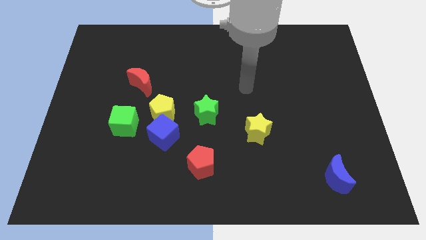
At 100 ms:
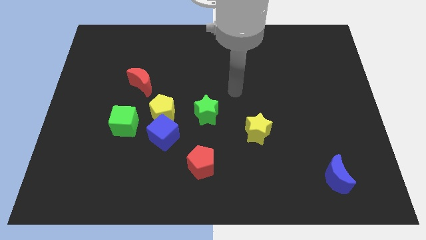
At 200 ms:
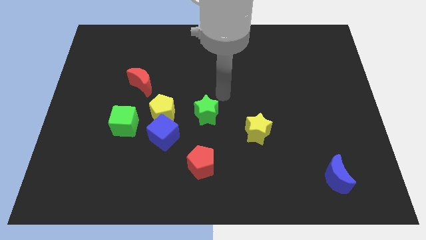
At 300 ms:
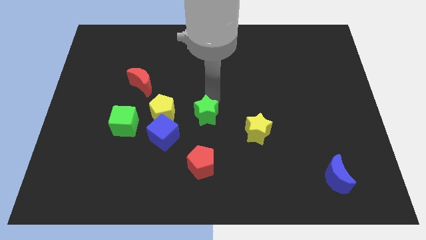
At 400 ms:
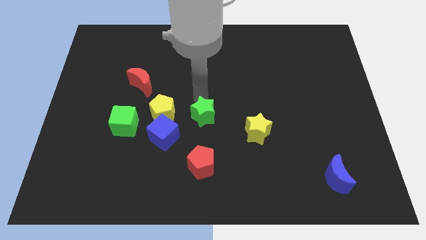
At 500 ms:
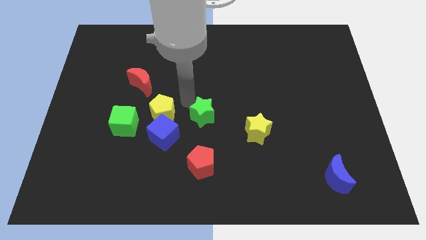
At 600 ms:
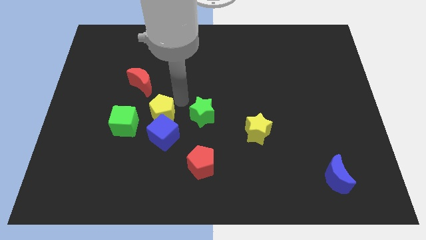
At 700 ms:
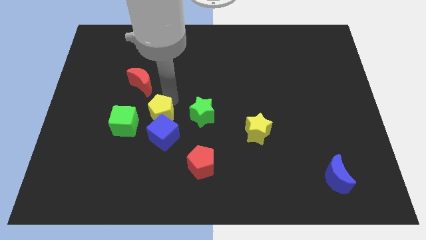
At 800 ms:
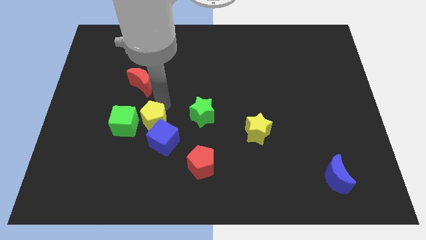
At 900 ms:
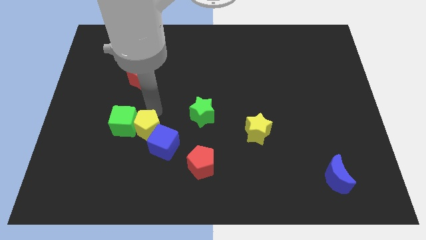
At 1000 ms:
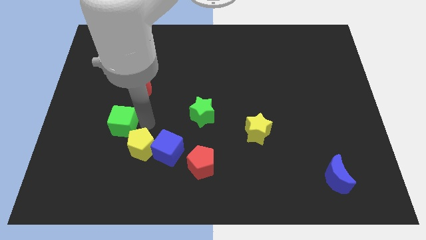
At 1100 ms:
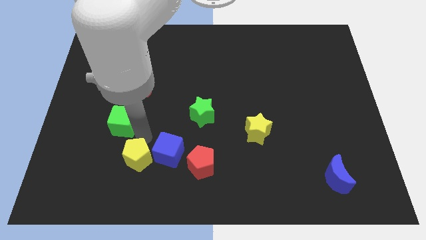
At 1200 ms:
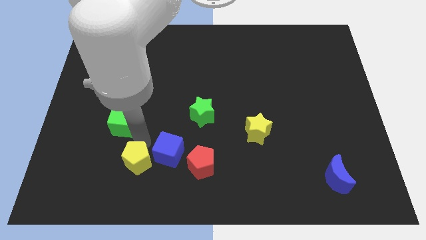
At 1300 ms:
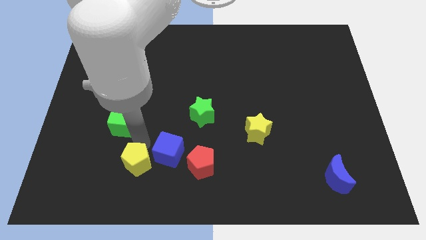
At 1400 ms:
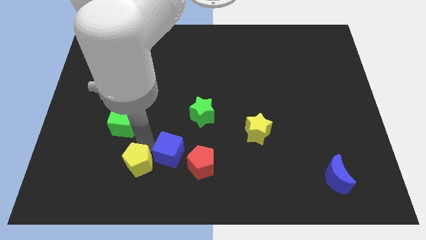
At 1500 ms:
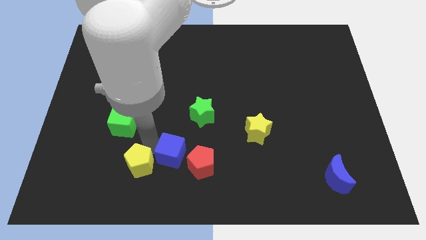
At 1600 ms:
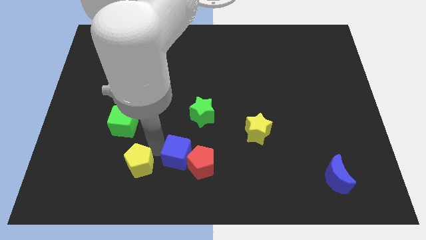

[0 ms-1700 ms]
separate the blue cube from the yellow pentagon and green cube

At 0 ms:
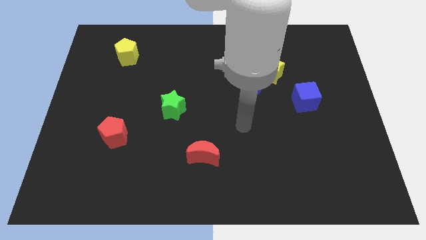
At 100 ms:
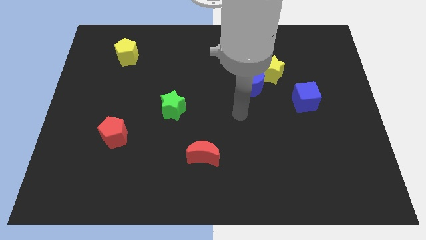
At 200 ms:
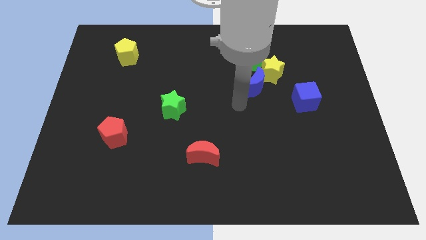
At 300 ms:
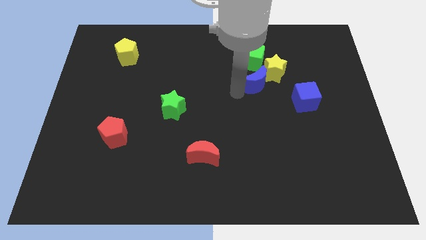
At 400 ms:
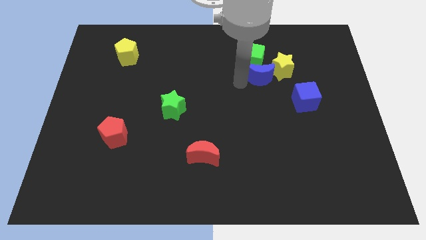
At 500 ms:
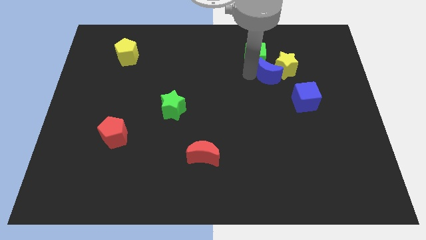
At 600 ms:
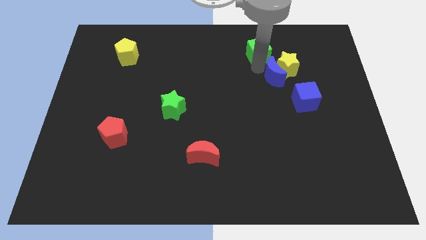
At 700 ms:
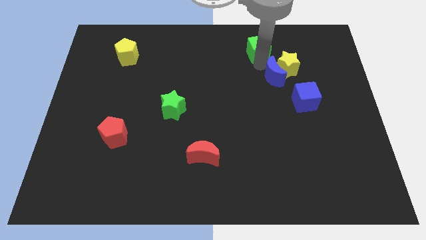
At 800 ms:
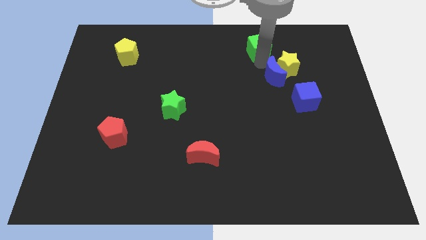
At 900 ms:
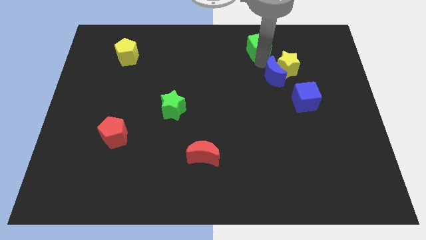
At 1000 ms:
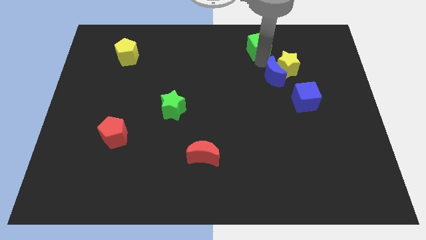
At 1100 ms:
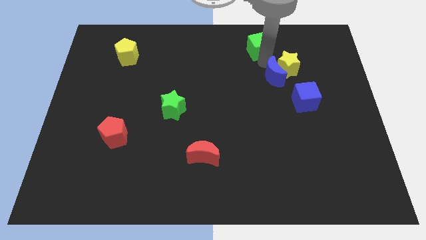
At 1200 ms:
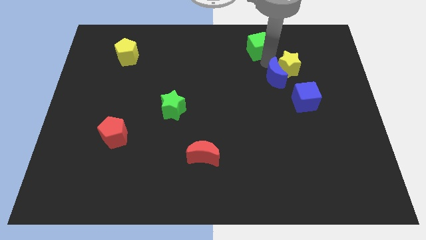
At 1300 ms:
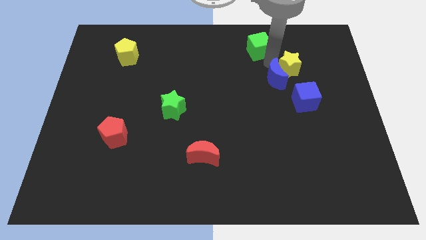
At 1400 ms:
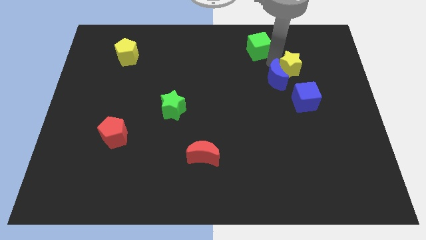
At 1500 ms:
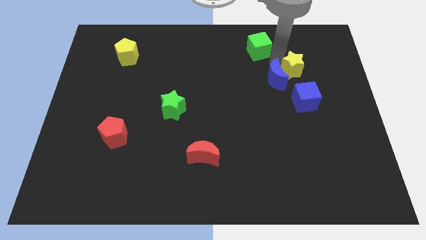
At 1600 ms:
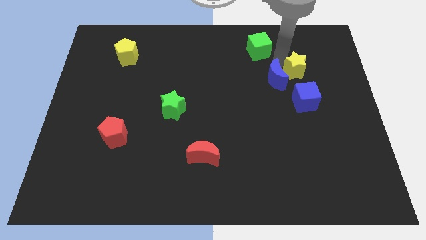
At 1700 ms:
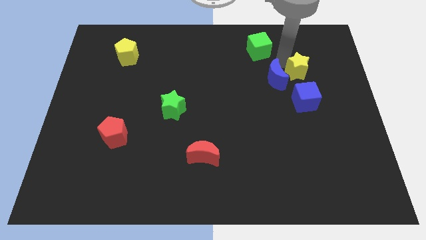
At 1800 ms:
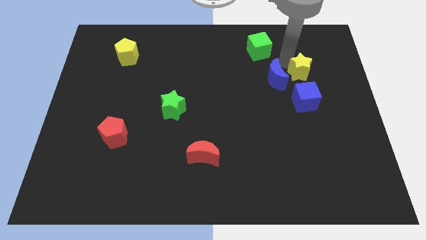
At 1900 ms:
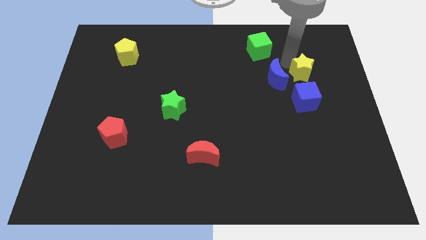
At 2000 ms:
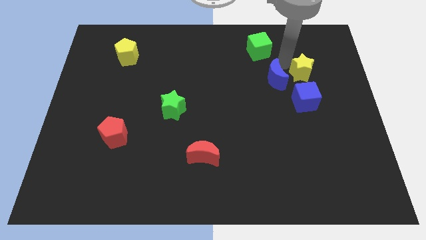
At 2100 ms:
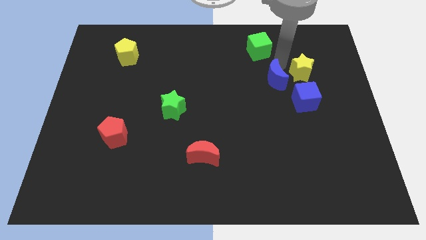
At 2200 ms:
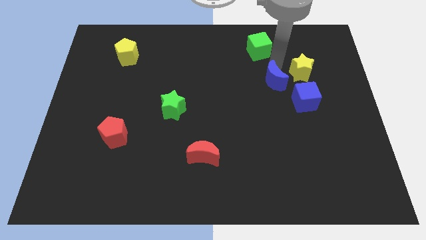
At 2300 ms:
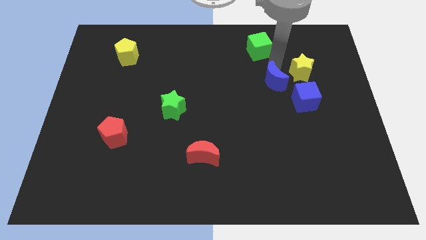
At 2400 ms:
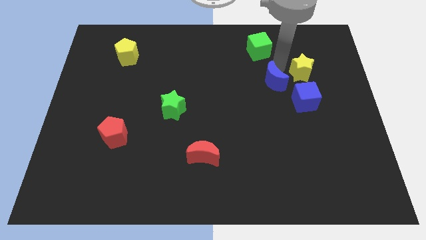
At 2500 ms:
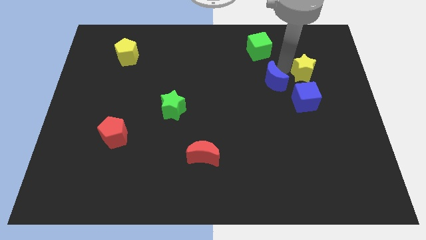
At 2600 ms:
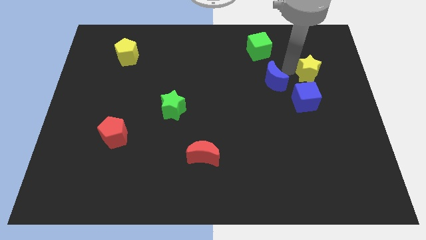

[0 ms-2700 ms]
separate the yellow star from the green cube and blue moon

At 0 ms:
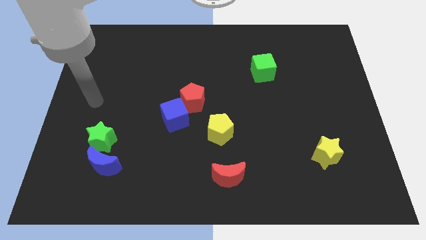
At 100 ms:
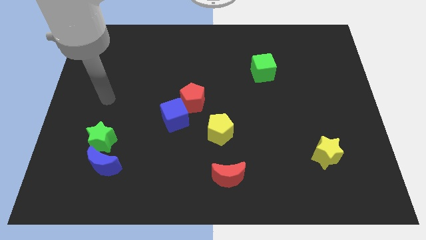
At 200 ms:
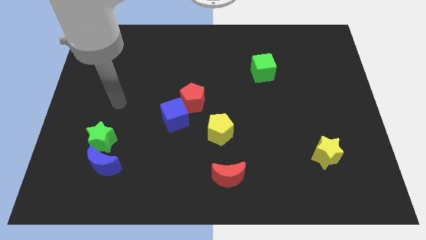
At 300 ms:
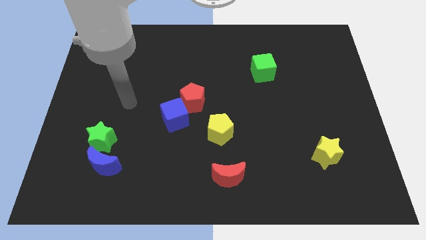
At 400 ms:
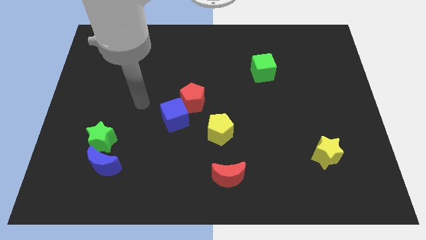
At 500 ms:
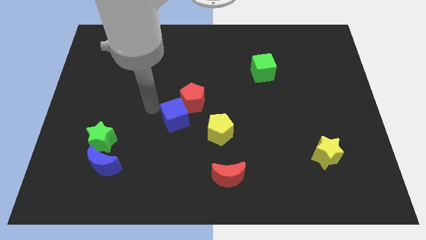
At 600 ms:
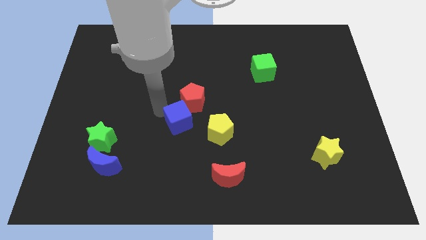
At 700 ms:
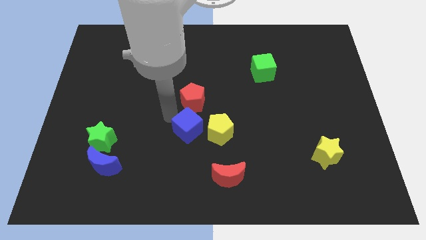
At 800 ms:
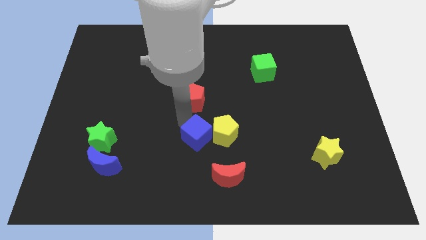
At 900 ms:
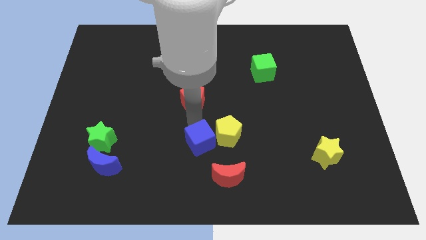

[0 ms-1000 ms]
separate the red pentagon from the blue cube

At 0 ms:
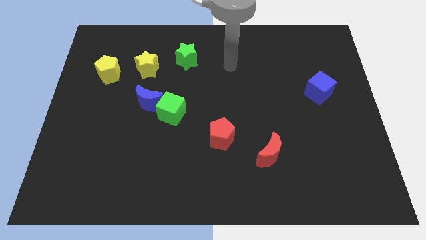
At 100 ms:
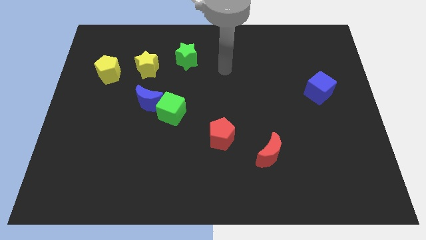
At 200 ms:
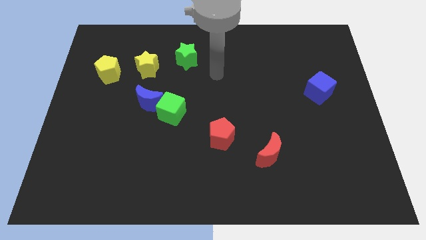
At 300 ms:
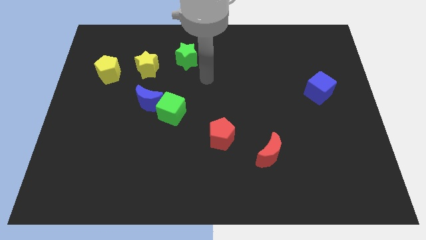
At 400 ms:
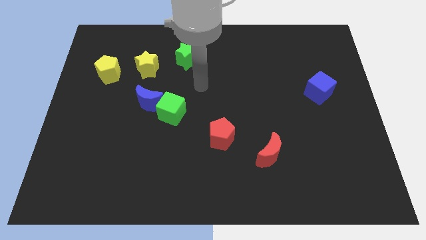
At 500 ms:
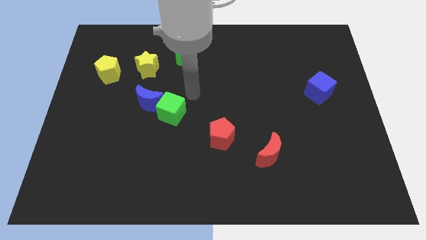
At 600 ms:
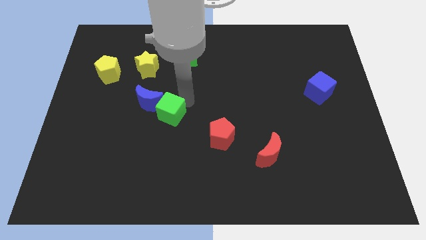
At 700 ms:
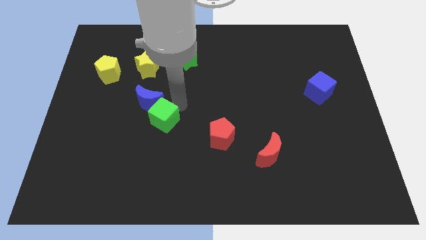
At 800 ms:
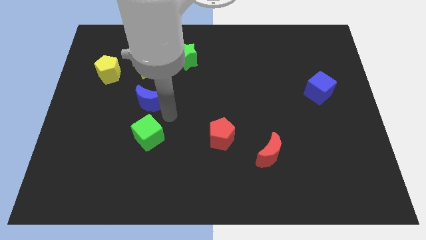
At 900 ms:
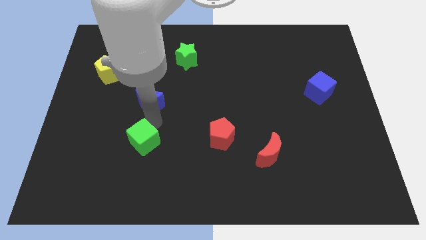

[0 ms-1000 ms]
separate the blue moon from the green cube

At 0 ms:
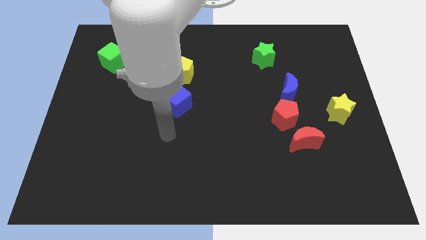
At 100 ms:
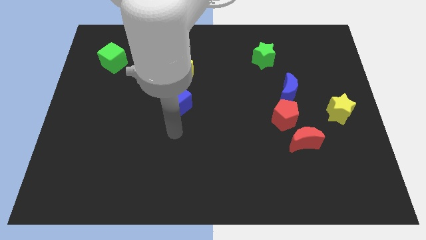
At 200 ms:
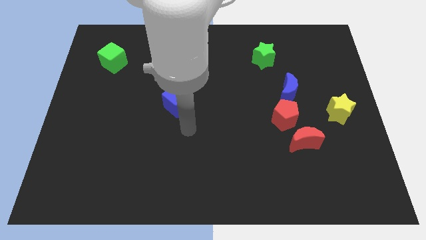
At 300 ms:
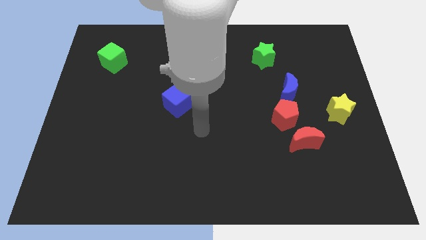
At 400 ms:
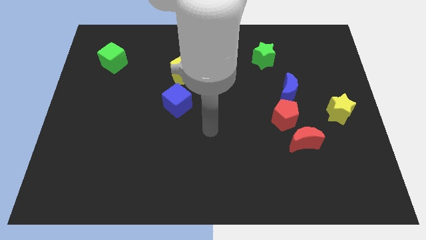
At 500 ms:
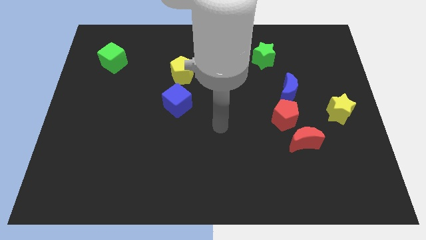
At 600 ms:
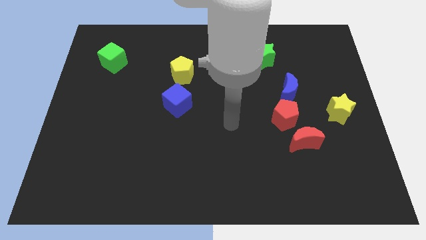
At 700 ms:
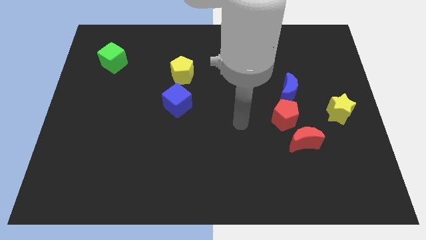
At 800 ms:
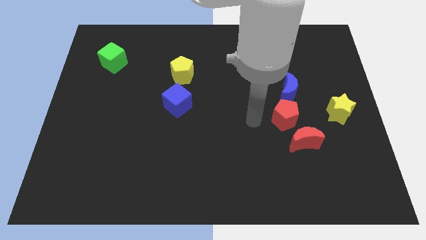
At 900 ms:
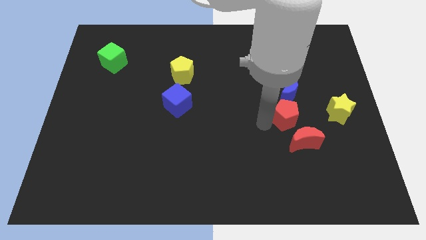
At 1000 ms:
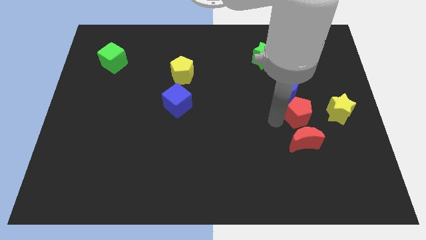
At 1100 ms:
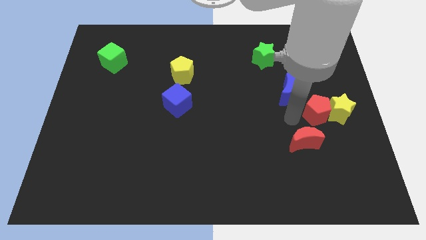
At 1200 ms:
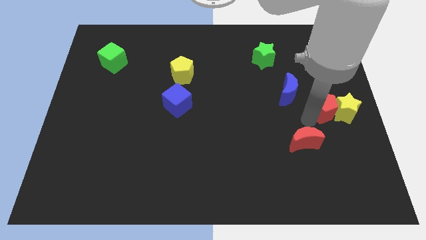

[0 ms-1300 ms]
separate the red moon from the red pentagon

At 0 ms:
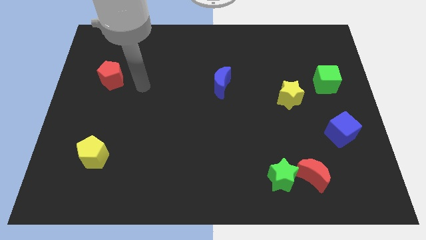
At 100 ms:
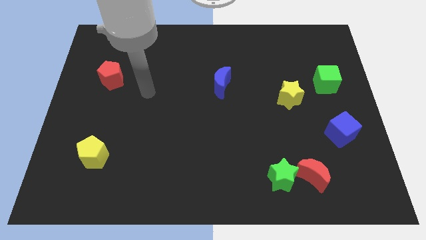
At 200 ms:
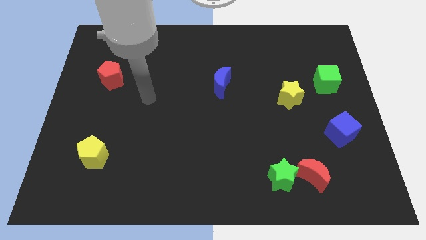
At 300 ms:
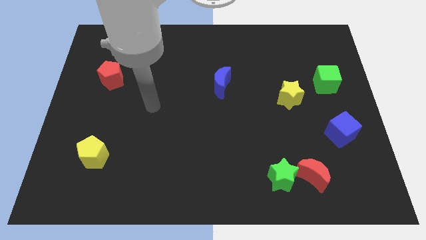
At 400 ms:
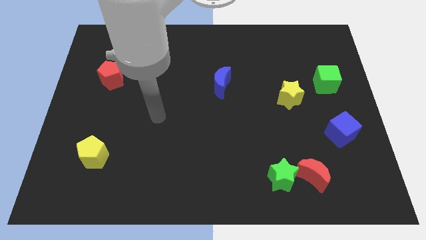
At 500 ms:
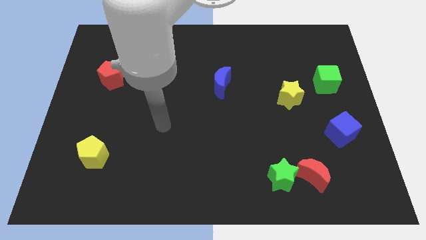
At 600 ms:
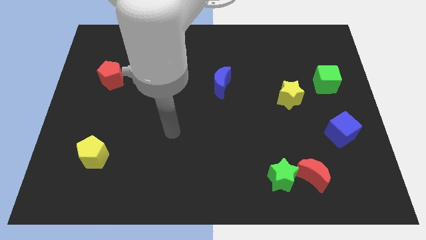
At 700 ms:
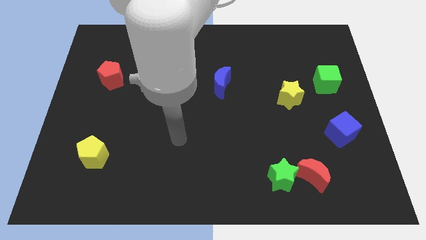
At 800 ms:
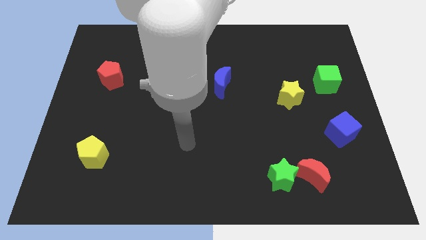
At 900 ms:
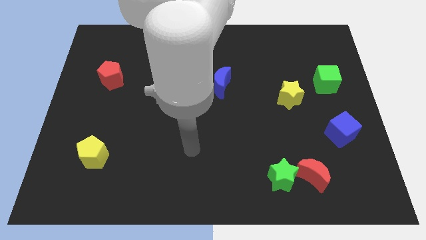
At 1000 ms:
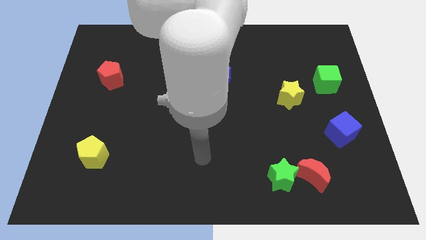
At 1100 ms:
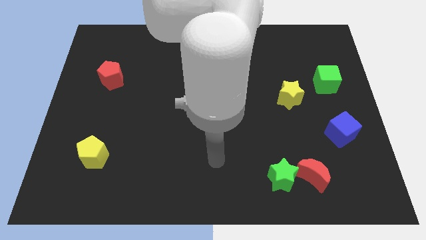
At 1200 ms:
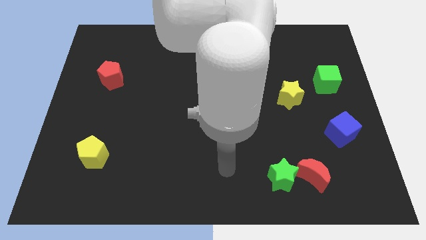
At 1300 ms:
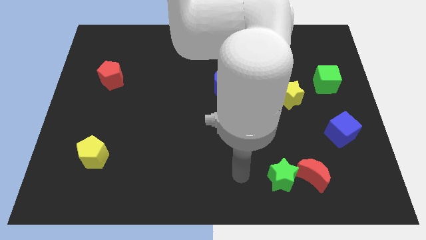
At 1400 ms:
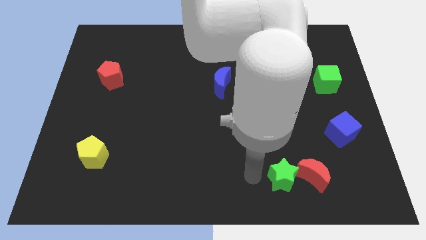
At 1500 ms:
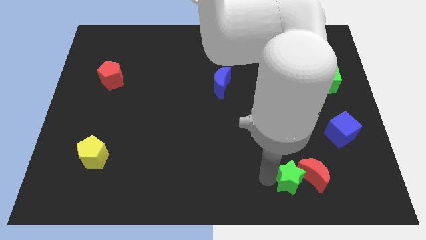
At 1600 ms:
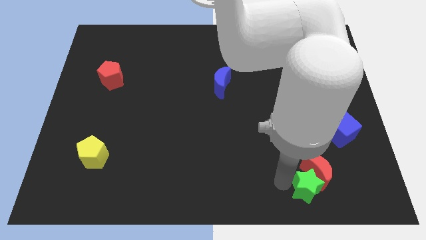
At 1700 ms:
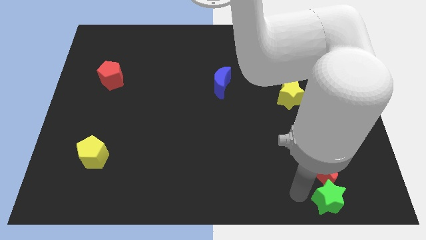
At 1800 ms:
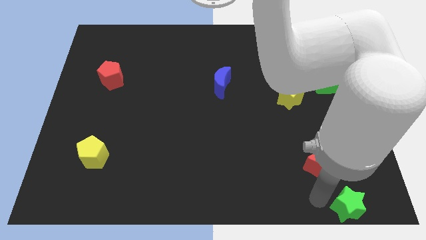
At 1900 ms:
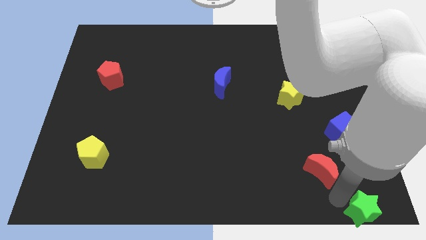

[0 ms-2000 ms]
move the red moon away from the green star
